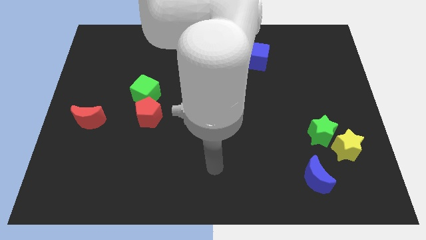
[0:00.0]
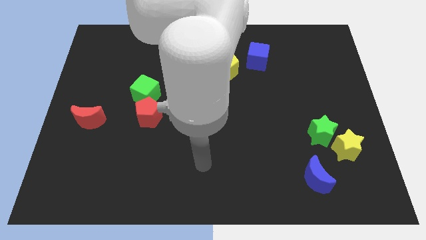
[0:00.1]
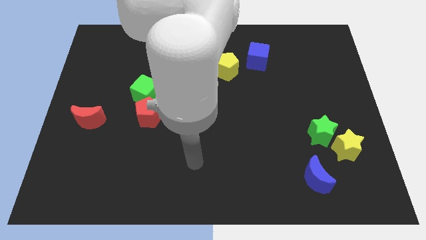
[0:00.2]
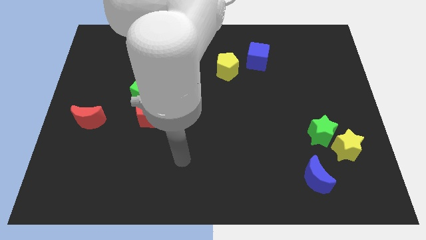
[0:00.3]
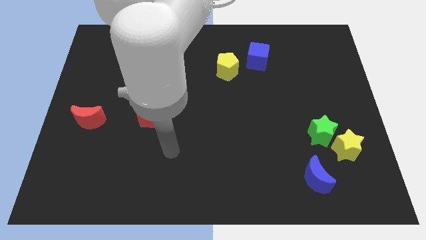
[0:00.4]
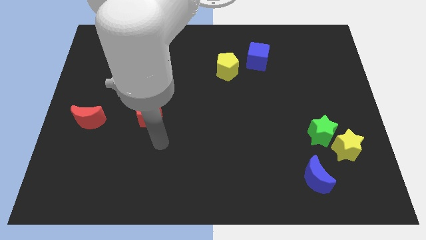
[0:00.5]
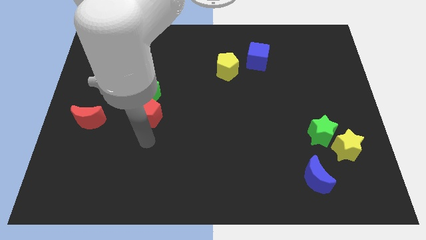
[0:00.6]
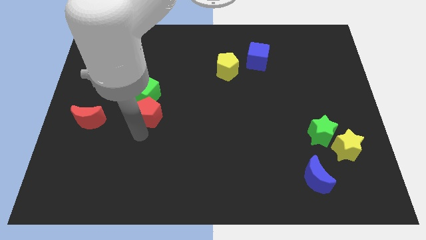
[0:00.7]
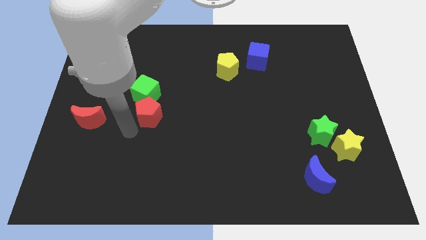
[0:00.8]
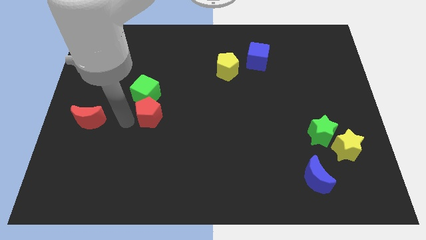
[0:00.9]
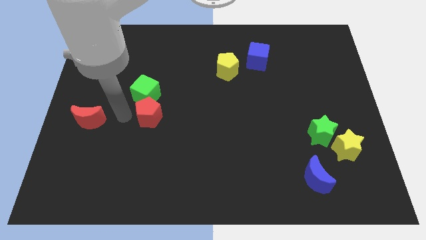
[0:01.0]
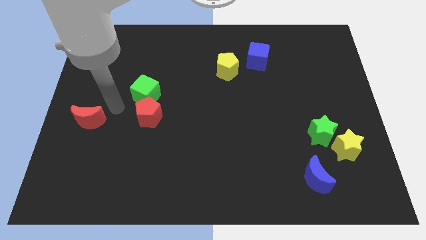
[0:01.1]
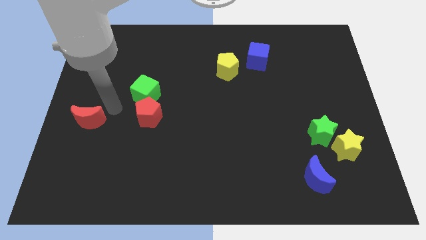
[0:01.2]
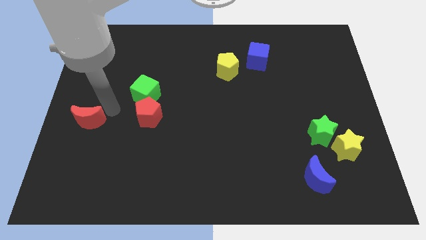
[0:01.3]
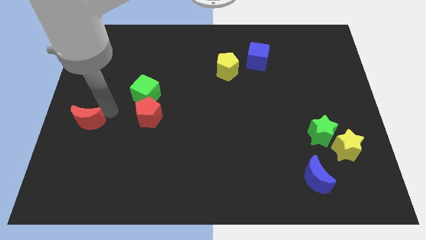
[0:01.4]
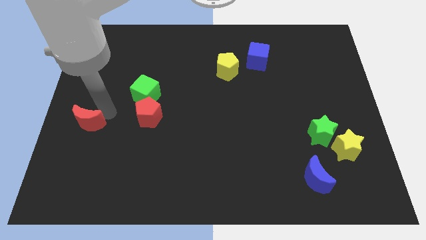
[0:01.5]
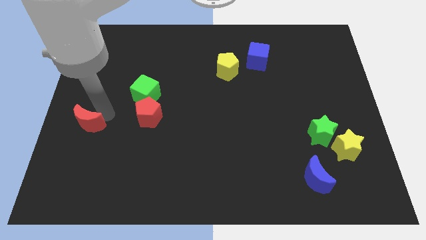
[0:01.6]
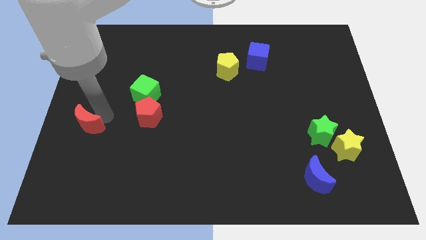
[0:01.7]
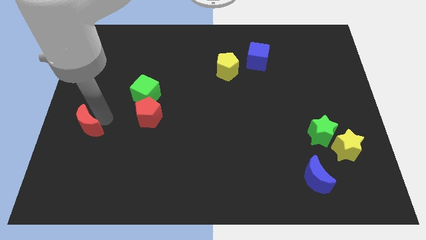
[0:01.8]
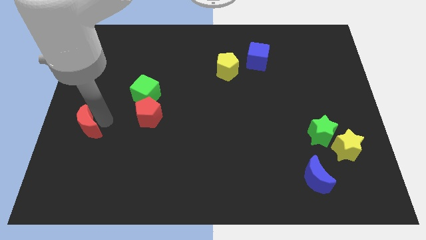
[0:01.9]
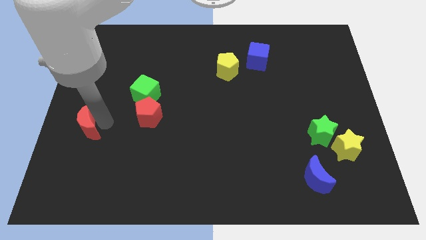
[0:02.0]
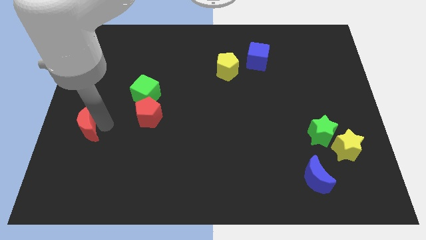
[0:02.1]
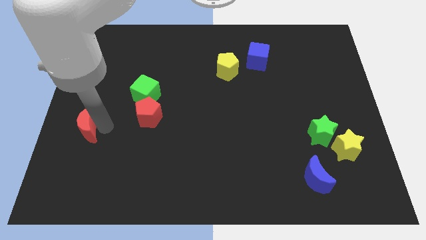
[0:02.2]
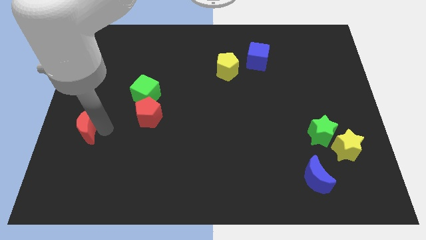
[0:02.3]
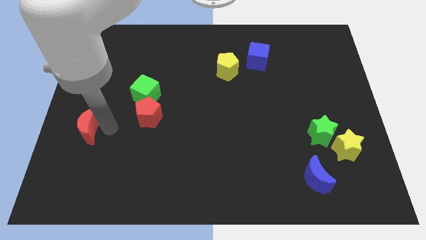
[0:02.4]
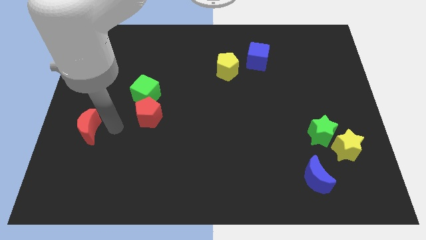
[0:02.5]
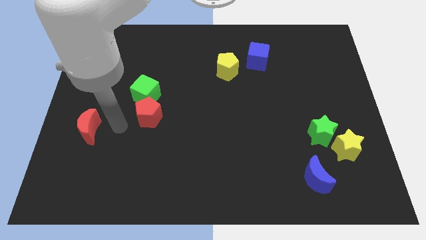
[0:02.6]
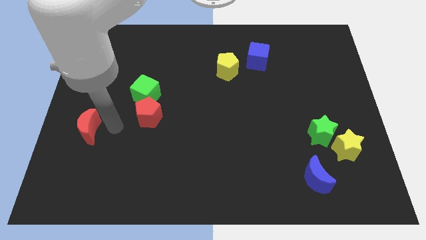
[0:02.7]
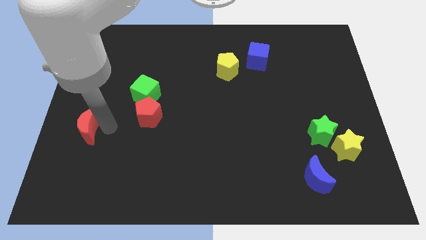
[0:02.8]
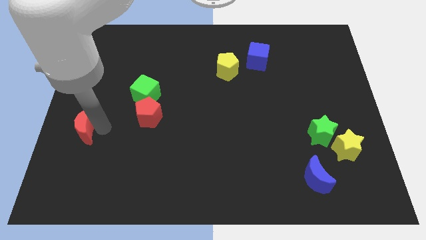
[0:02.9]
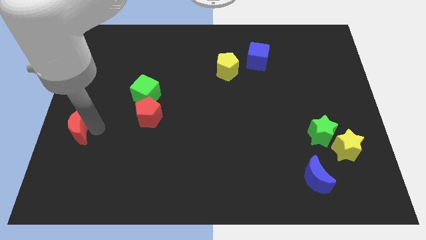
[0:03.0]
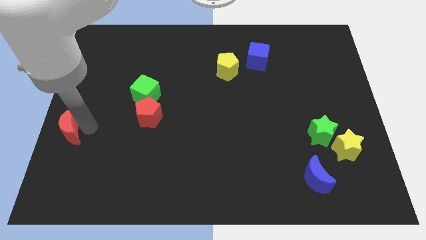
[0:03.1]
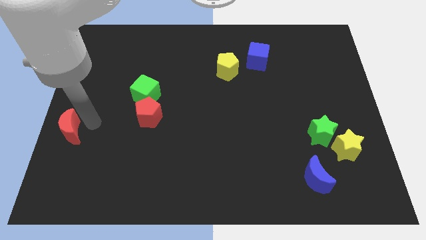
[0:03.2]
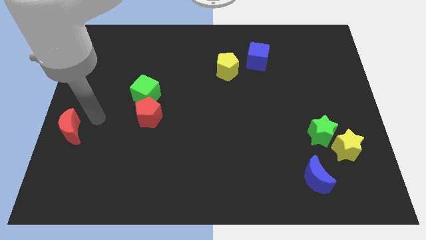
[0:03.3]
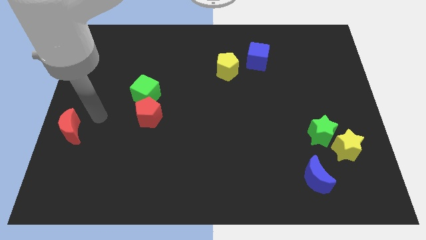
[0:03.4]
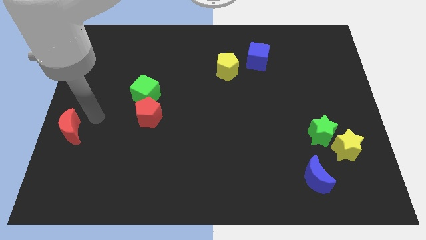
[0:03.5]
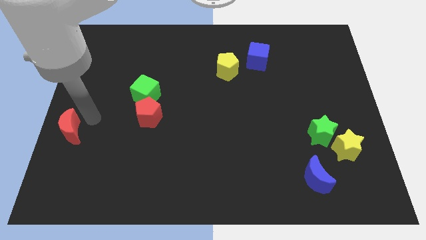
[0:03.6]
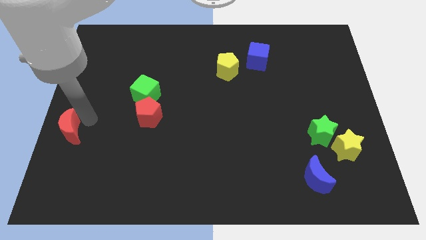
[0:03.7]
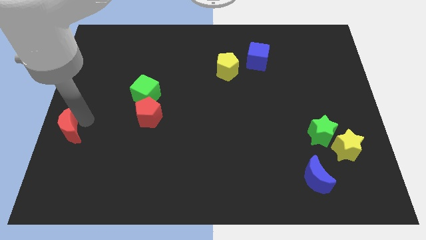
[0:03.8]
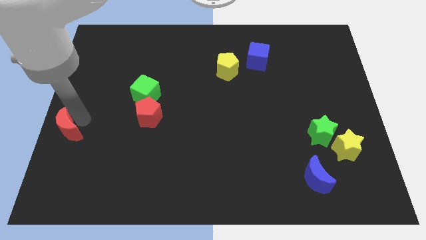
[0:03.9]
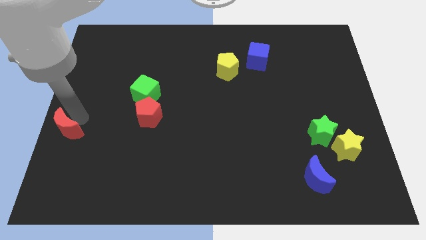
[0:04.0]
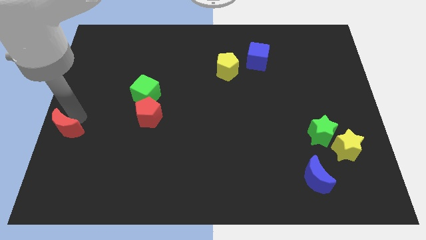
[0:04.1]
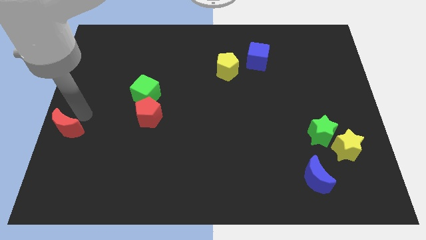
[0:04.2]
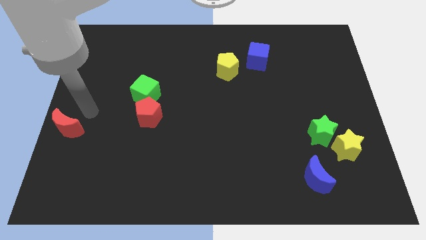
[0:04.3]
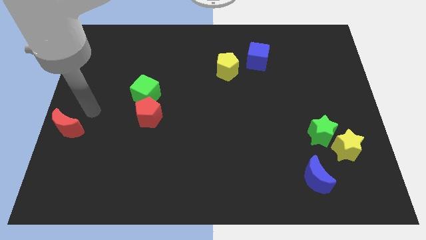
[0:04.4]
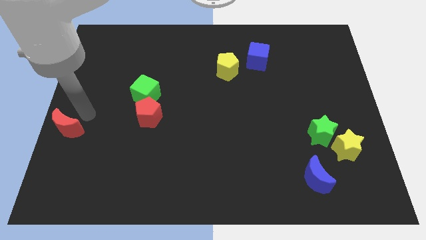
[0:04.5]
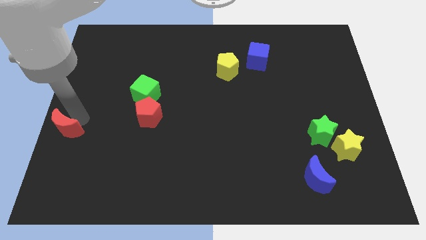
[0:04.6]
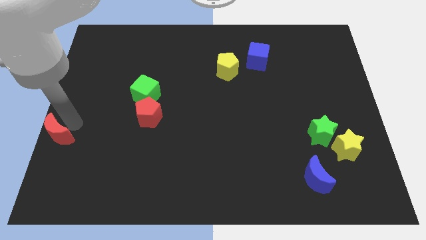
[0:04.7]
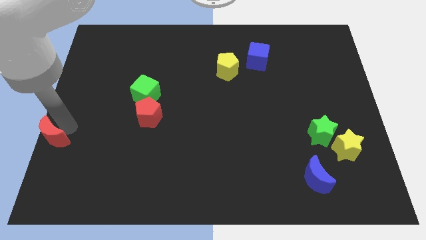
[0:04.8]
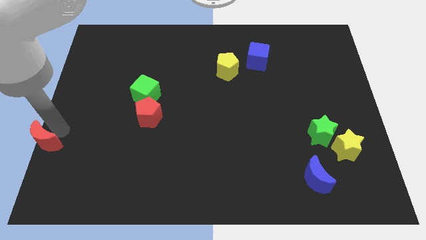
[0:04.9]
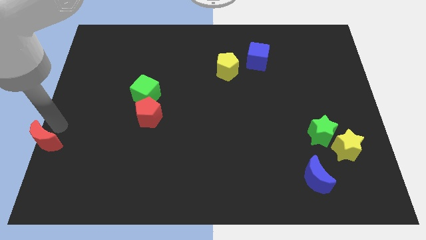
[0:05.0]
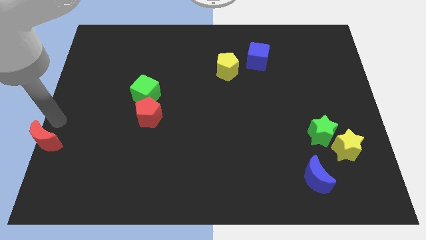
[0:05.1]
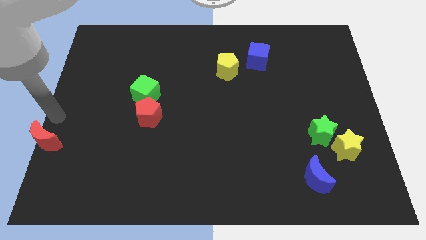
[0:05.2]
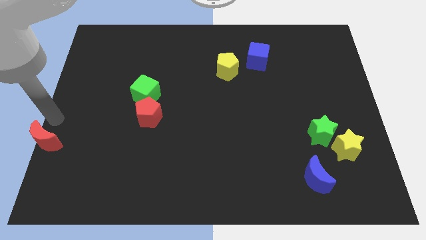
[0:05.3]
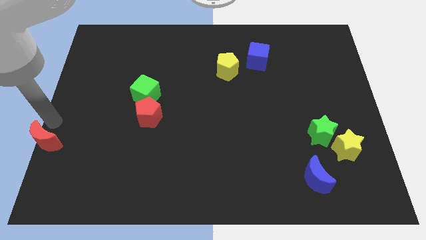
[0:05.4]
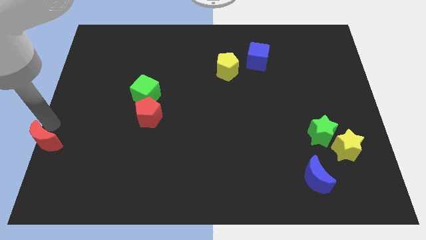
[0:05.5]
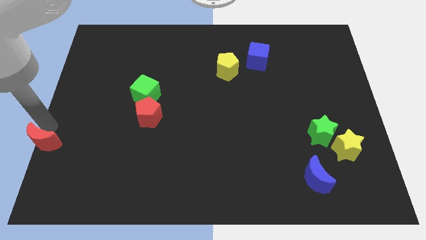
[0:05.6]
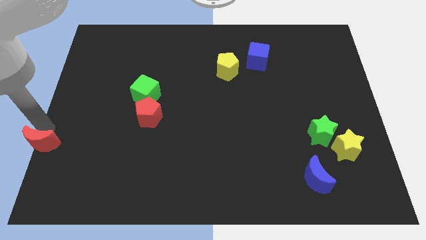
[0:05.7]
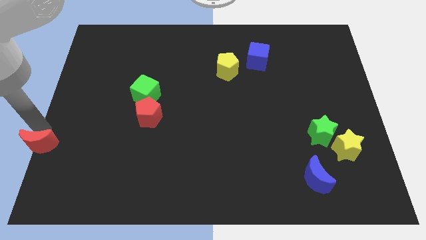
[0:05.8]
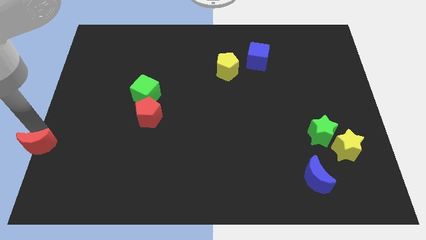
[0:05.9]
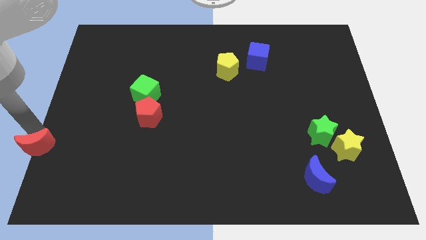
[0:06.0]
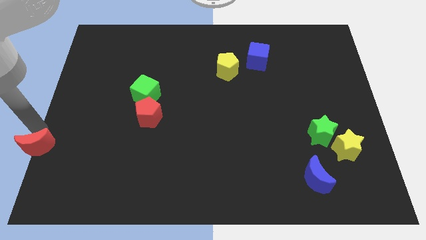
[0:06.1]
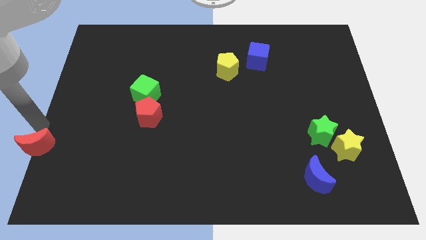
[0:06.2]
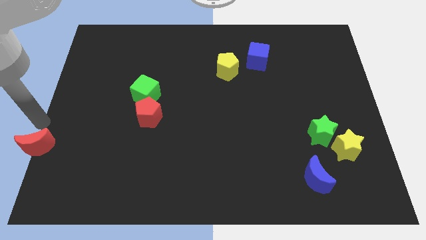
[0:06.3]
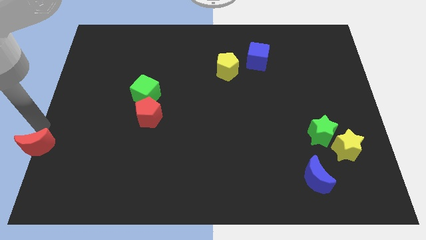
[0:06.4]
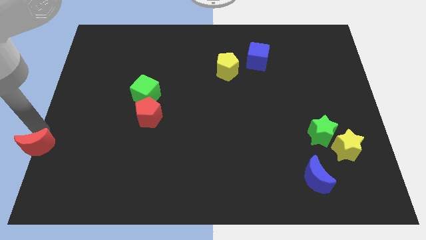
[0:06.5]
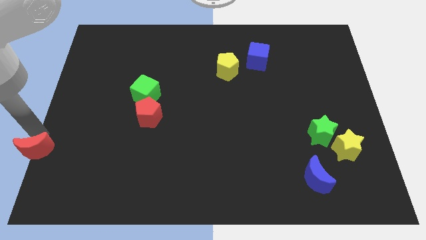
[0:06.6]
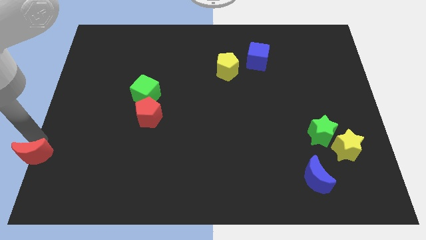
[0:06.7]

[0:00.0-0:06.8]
slide the red moon to the bottom left corner

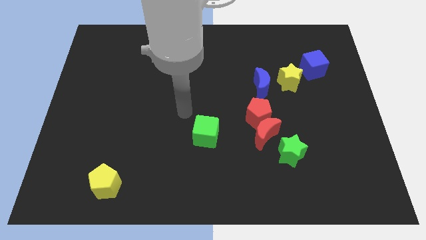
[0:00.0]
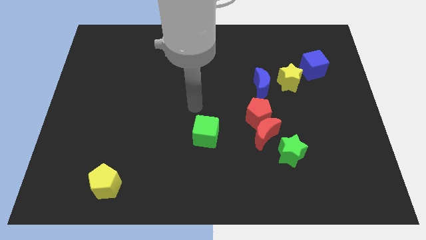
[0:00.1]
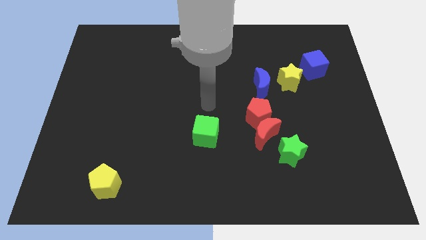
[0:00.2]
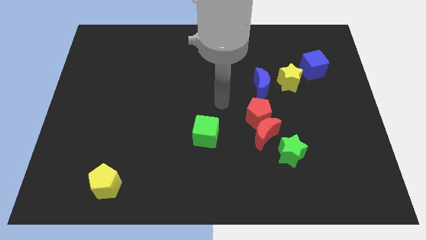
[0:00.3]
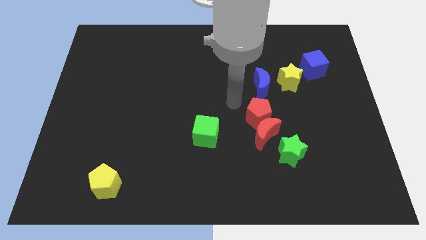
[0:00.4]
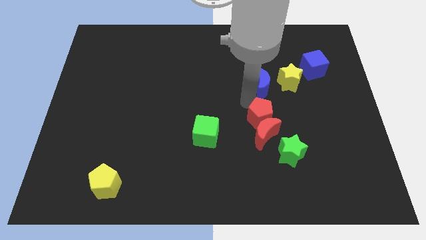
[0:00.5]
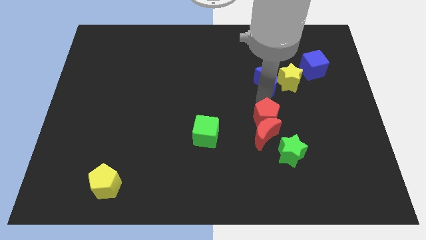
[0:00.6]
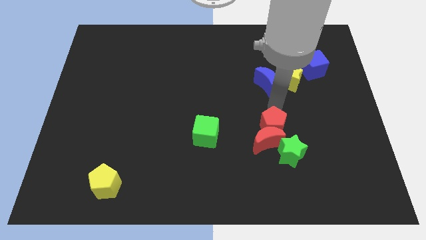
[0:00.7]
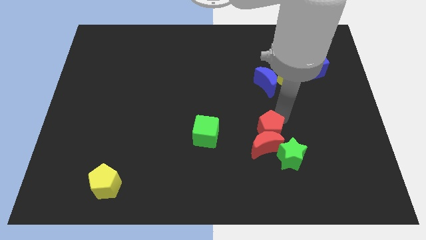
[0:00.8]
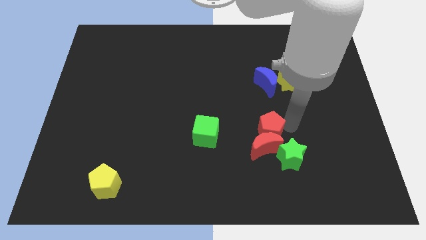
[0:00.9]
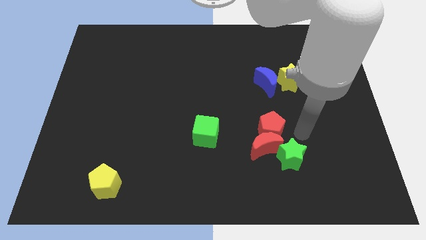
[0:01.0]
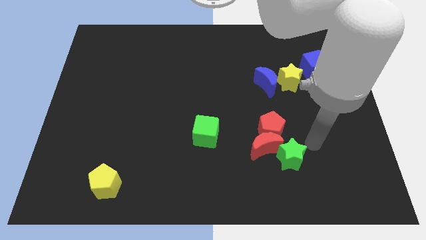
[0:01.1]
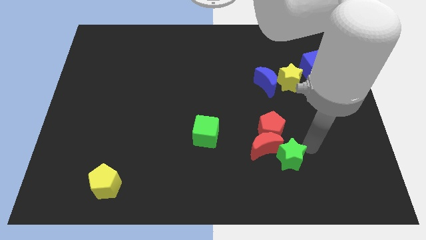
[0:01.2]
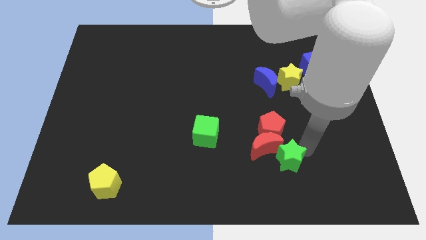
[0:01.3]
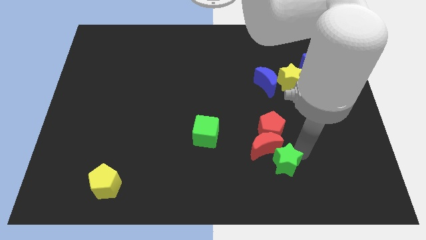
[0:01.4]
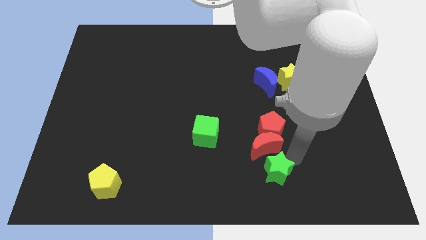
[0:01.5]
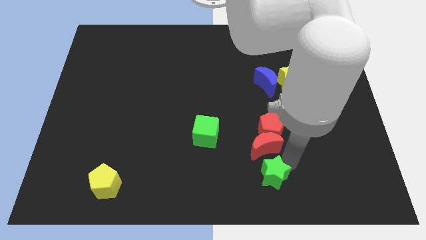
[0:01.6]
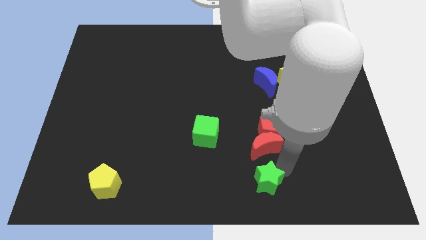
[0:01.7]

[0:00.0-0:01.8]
move the green star to the bottom side
